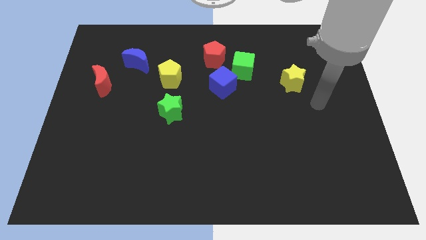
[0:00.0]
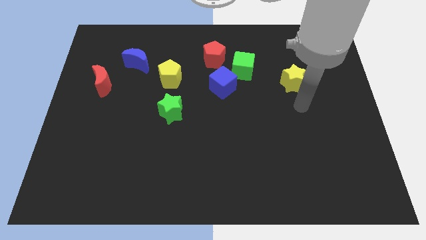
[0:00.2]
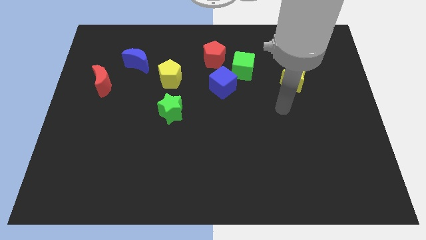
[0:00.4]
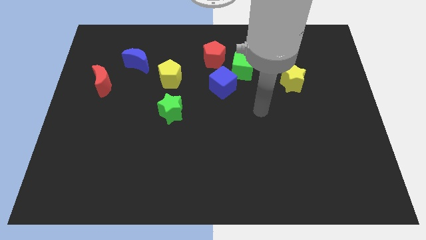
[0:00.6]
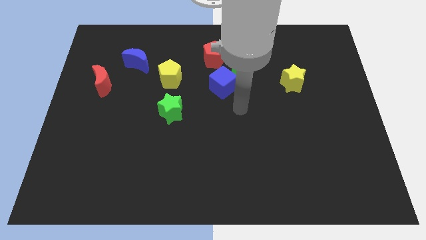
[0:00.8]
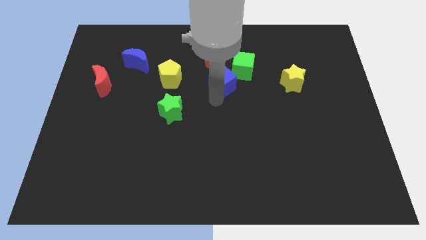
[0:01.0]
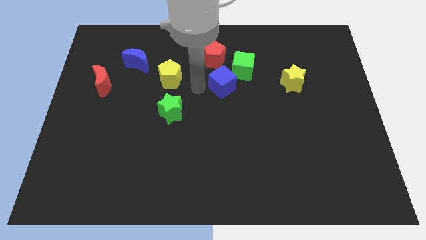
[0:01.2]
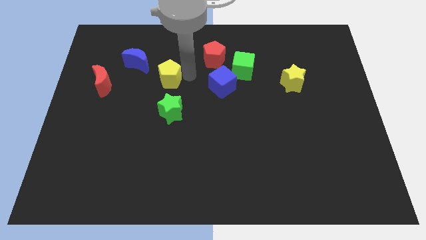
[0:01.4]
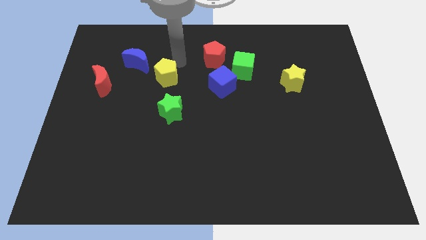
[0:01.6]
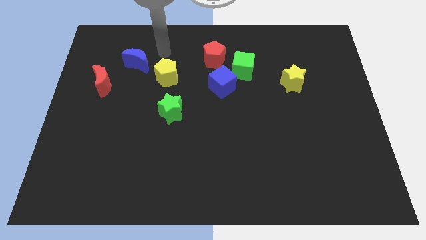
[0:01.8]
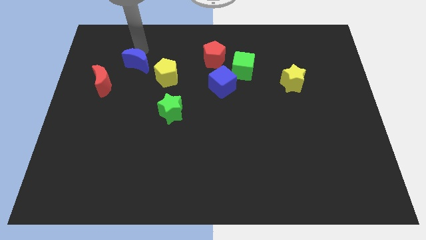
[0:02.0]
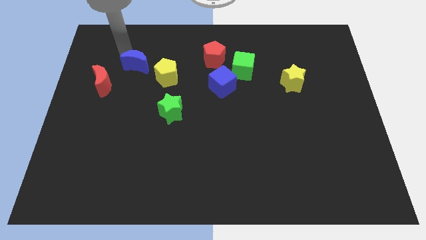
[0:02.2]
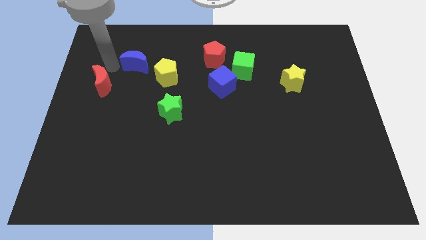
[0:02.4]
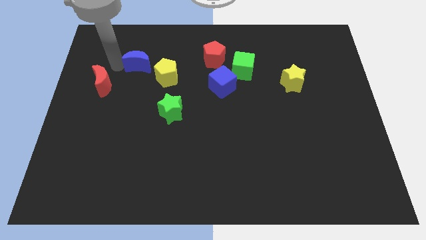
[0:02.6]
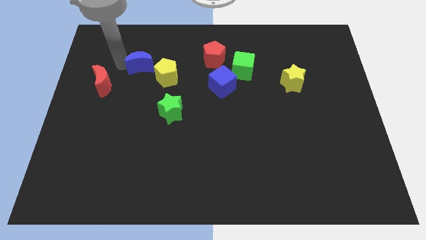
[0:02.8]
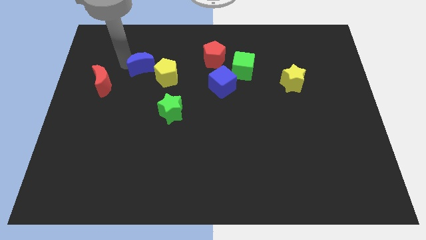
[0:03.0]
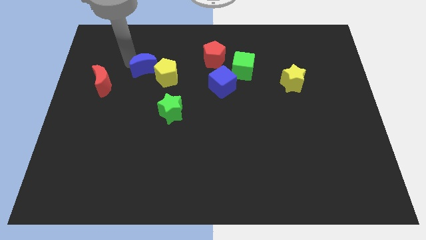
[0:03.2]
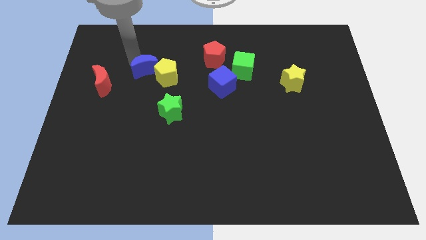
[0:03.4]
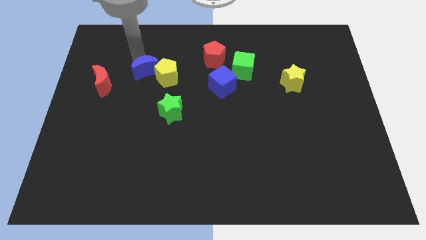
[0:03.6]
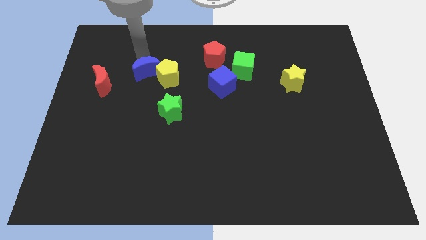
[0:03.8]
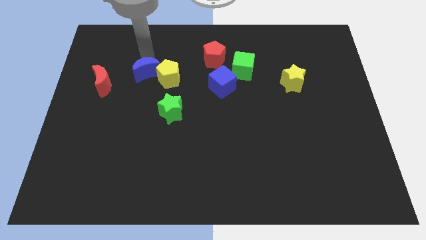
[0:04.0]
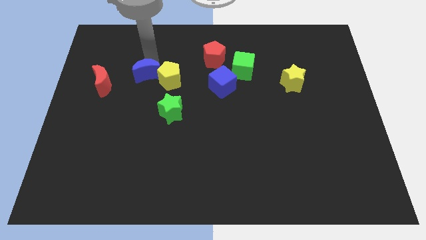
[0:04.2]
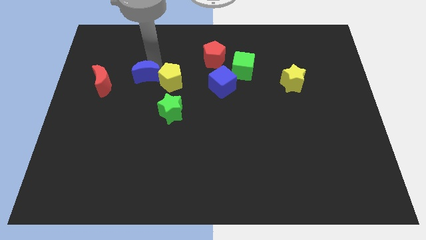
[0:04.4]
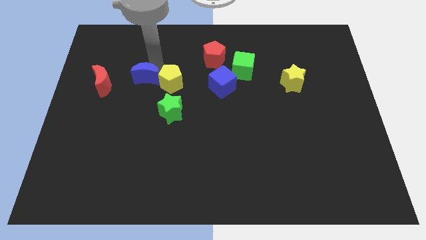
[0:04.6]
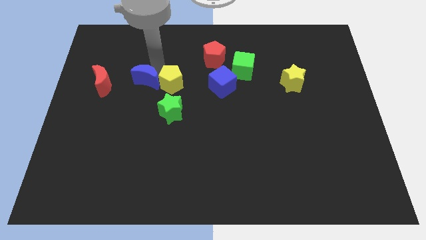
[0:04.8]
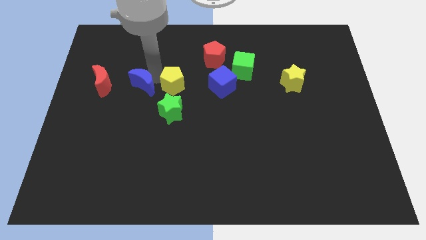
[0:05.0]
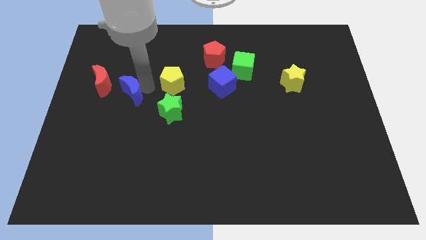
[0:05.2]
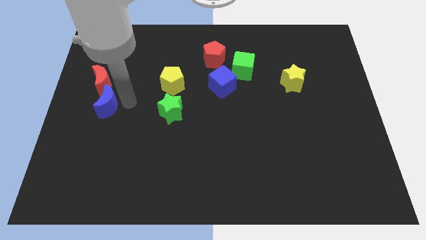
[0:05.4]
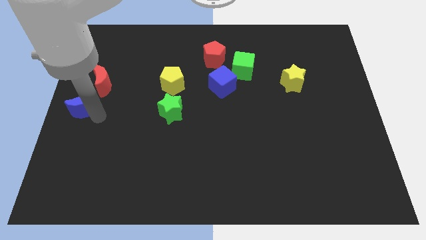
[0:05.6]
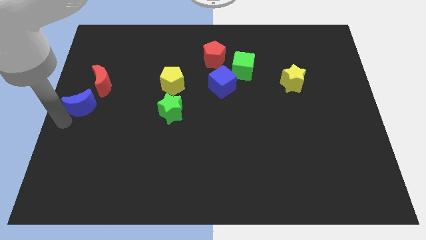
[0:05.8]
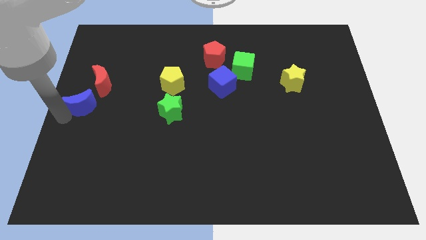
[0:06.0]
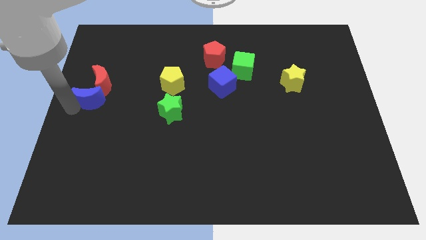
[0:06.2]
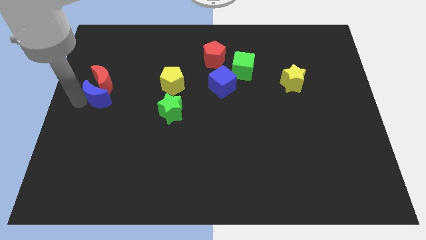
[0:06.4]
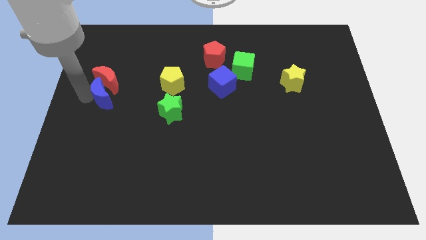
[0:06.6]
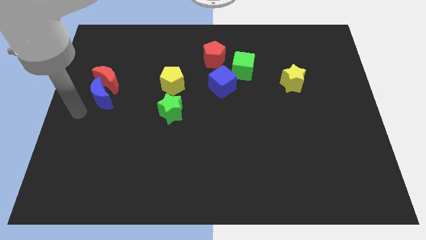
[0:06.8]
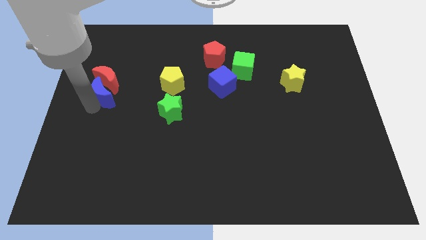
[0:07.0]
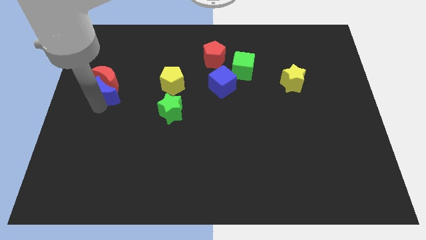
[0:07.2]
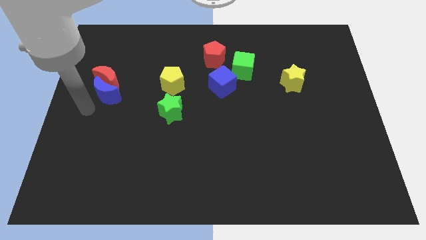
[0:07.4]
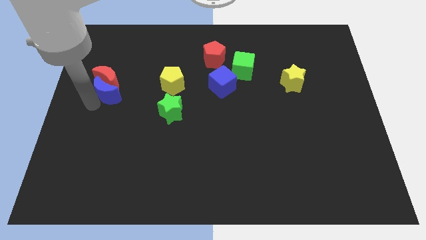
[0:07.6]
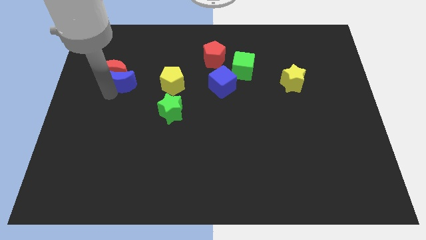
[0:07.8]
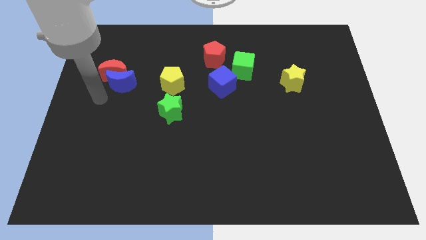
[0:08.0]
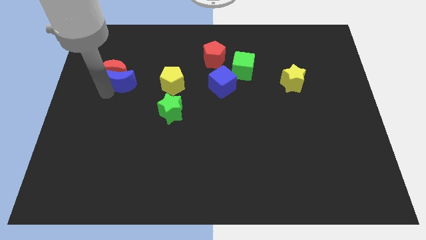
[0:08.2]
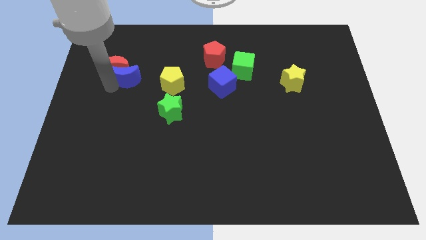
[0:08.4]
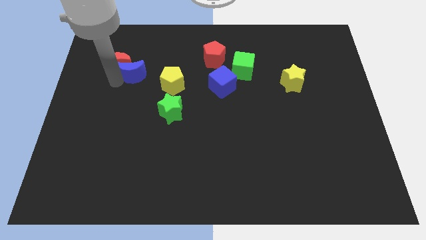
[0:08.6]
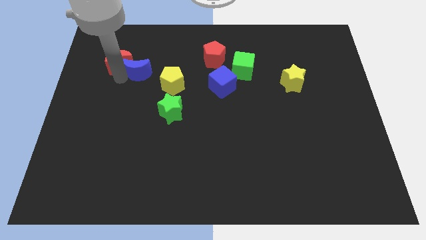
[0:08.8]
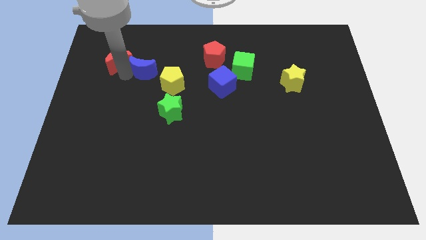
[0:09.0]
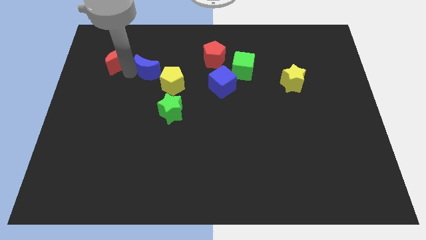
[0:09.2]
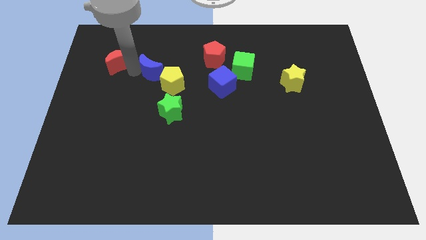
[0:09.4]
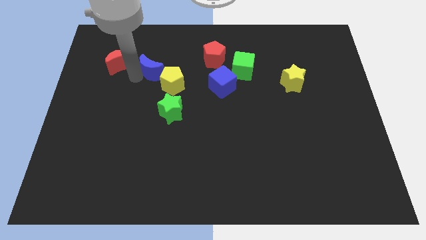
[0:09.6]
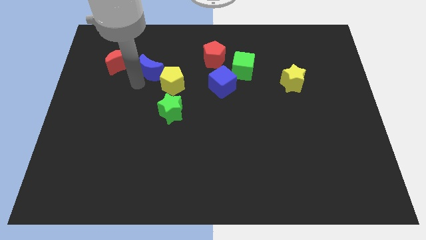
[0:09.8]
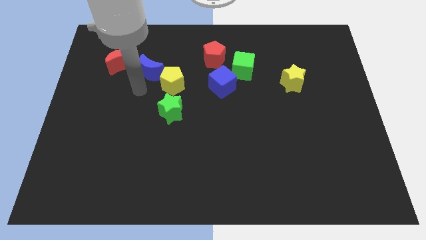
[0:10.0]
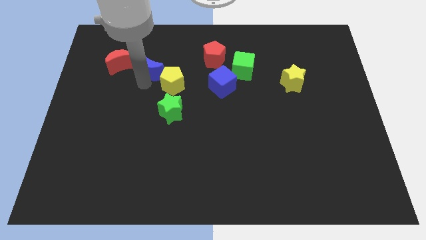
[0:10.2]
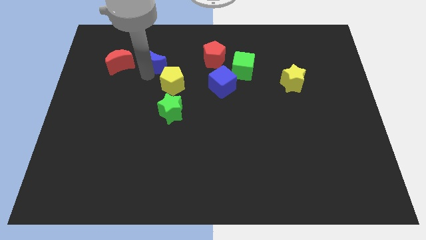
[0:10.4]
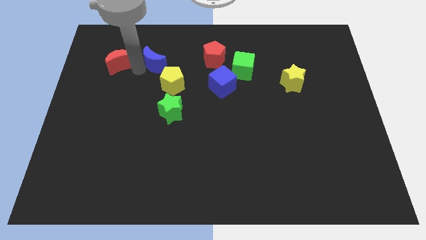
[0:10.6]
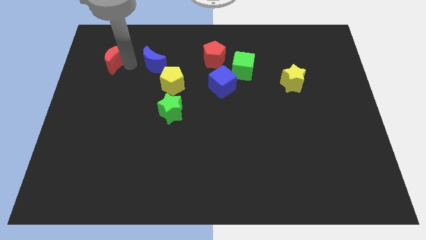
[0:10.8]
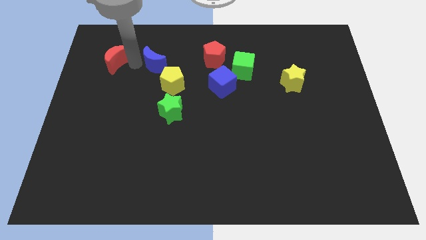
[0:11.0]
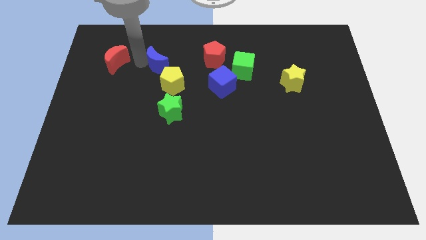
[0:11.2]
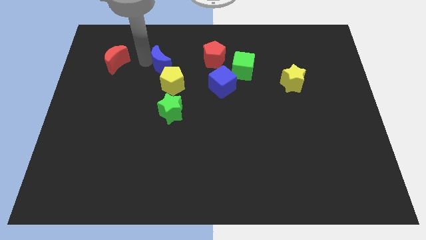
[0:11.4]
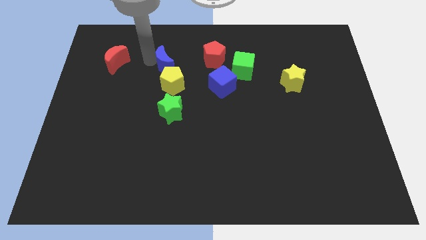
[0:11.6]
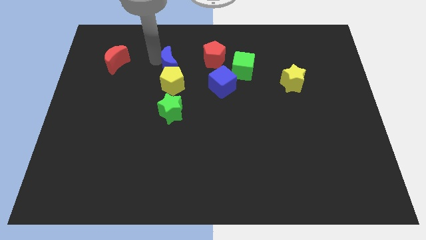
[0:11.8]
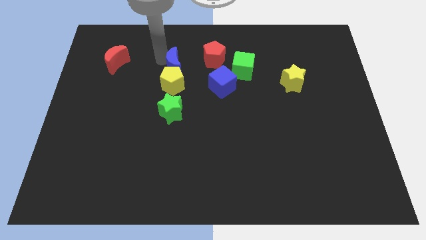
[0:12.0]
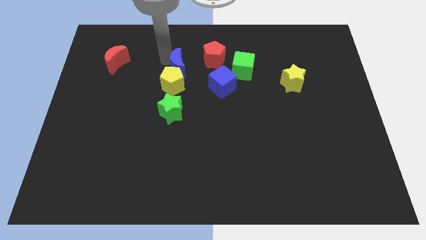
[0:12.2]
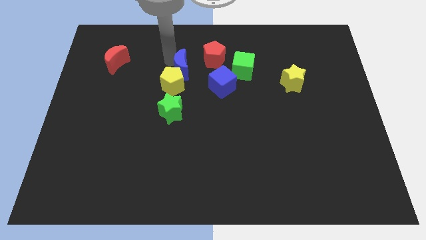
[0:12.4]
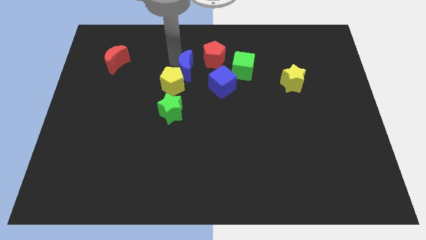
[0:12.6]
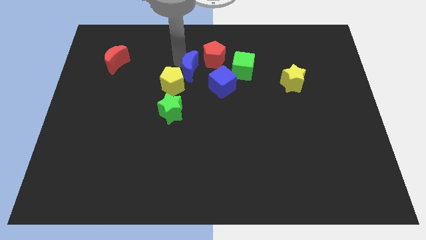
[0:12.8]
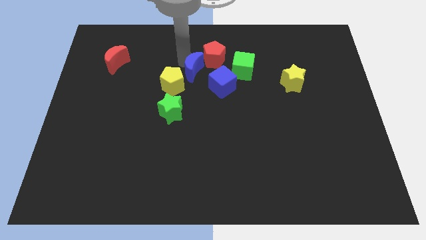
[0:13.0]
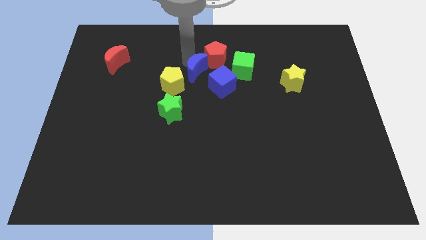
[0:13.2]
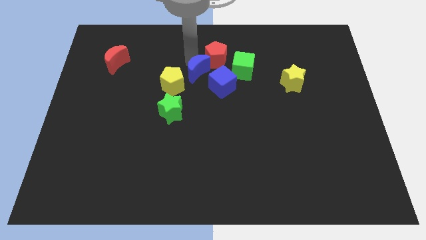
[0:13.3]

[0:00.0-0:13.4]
move the blue moon to the bottom of the red pentagon
